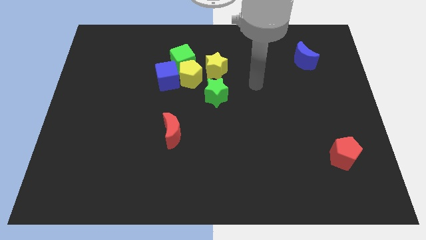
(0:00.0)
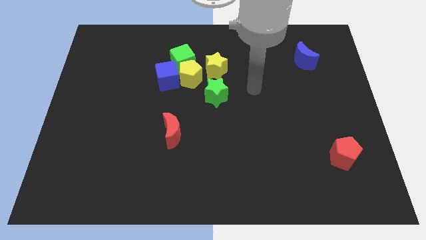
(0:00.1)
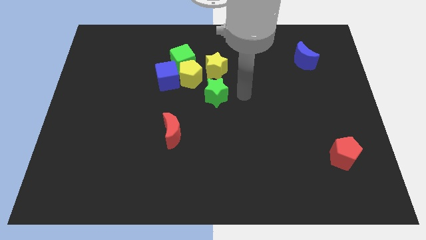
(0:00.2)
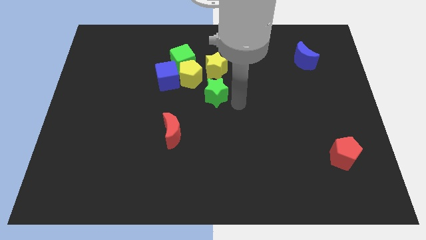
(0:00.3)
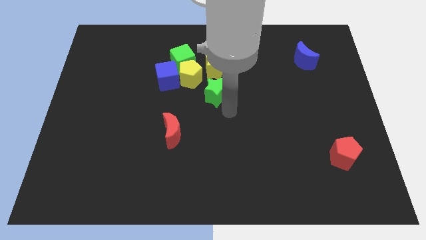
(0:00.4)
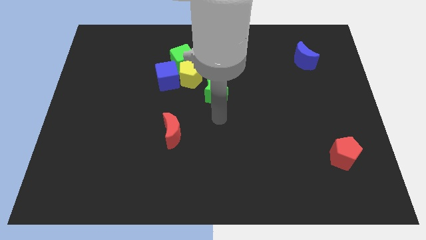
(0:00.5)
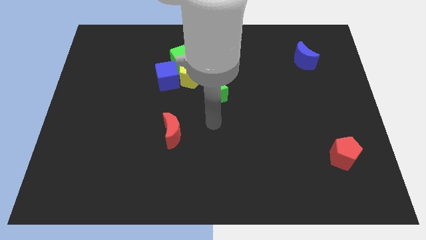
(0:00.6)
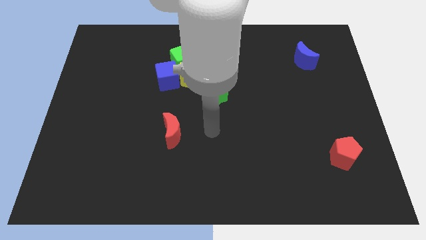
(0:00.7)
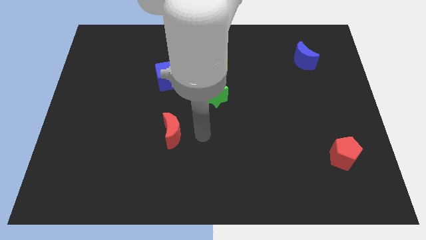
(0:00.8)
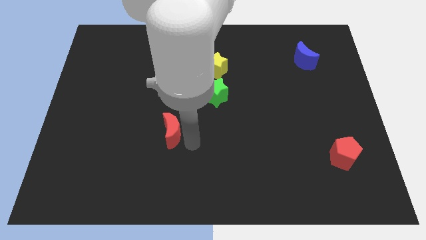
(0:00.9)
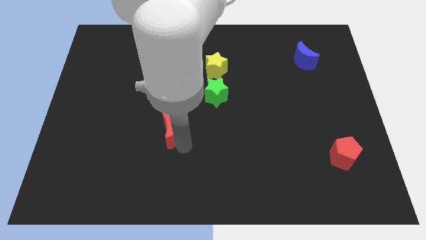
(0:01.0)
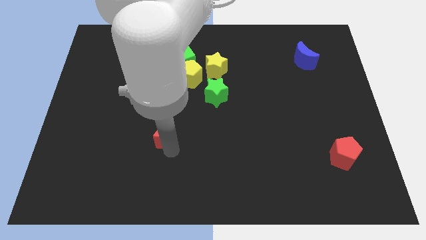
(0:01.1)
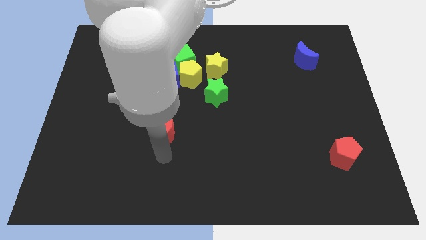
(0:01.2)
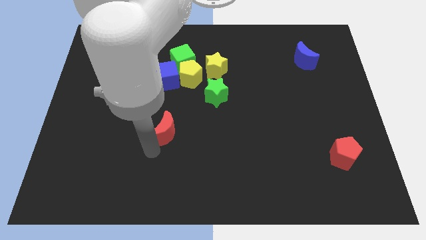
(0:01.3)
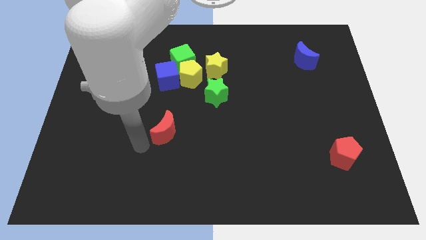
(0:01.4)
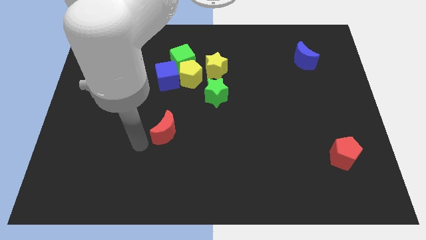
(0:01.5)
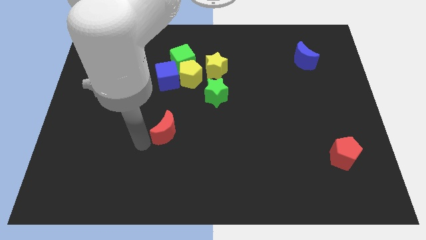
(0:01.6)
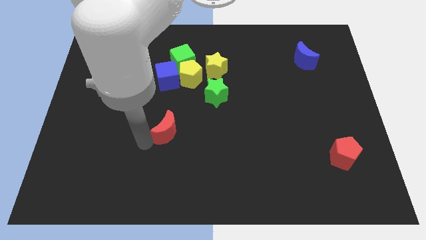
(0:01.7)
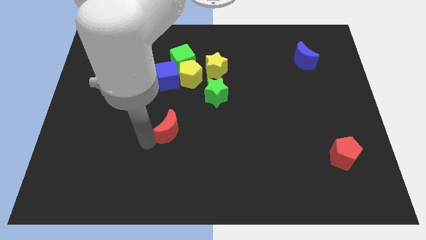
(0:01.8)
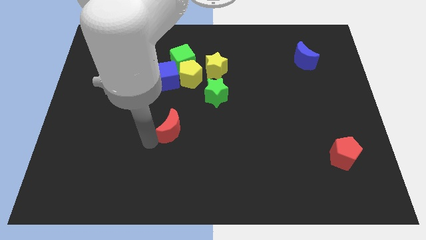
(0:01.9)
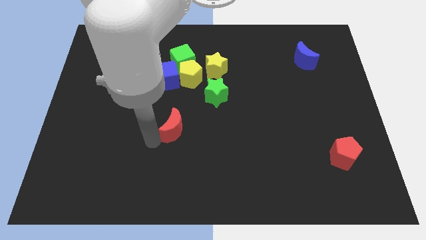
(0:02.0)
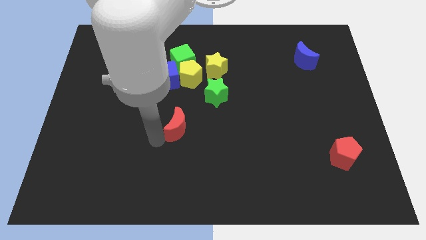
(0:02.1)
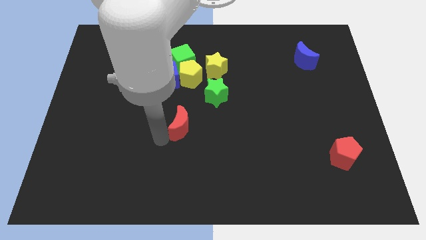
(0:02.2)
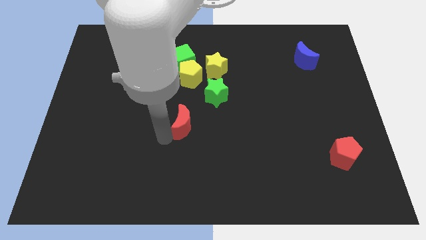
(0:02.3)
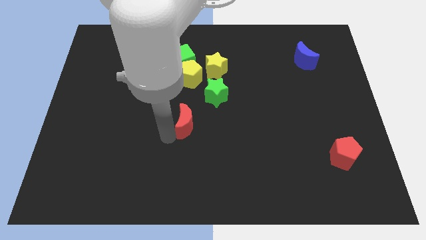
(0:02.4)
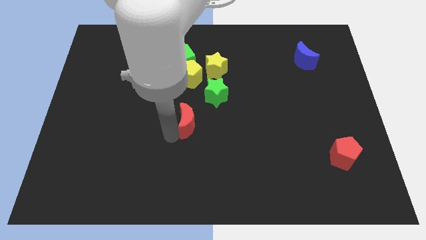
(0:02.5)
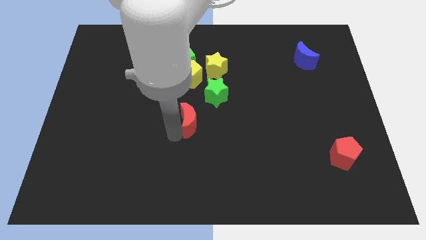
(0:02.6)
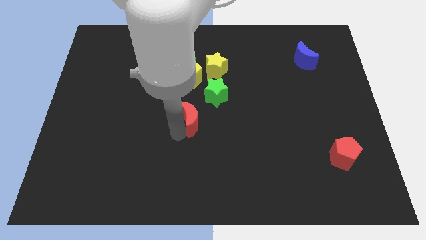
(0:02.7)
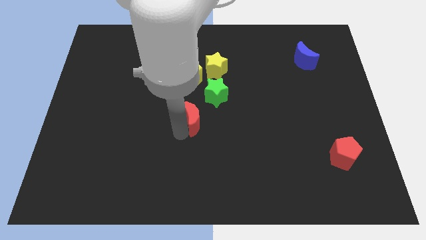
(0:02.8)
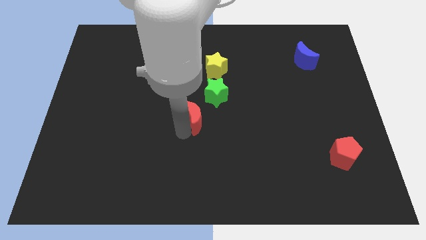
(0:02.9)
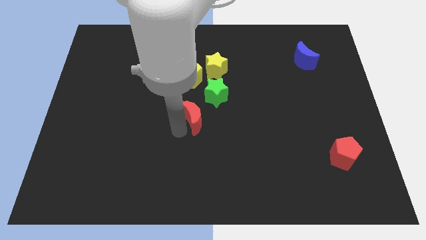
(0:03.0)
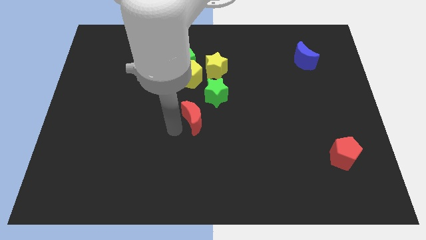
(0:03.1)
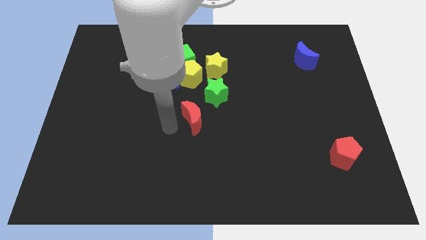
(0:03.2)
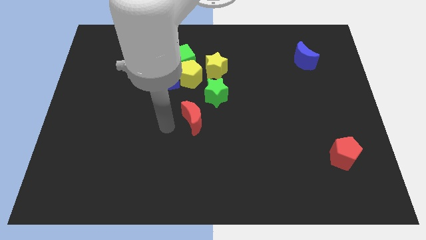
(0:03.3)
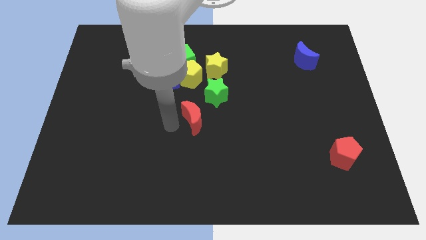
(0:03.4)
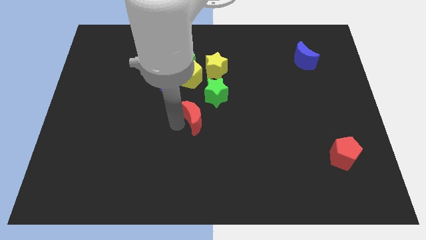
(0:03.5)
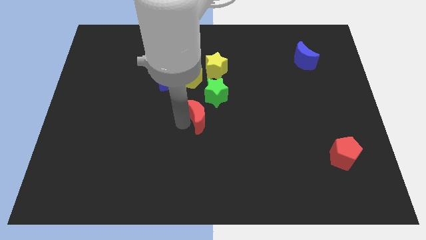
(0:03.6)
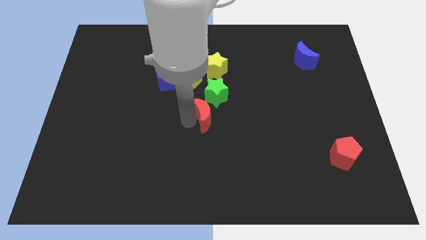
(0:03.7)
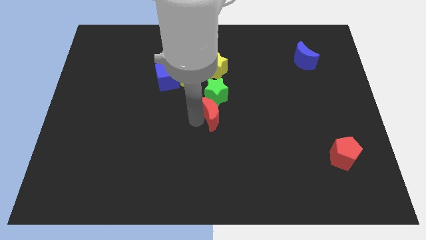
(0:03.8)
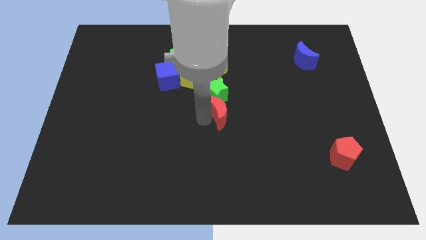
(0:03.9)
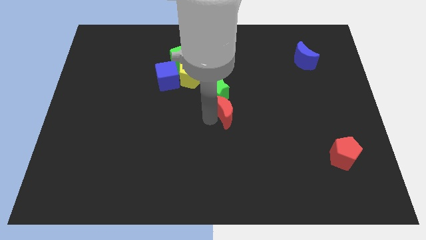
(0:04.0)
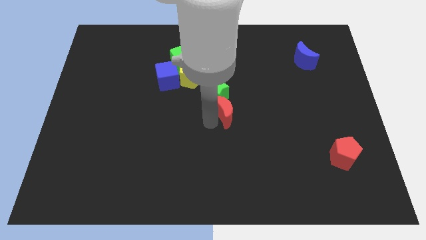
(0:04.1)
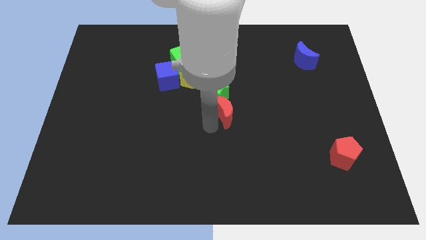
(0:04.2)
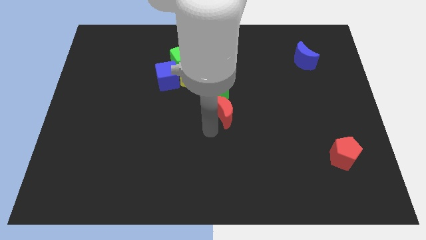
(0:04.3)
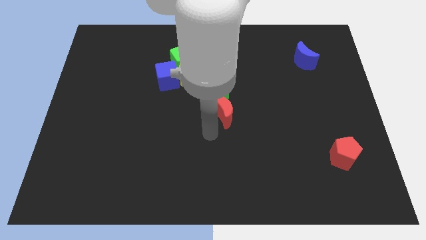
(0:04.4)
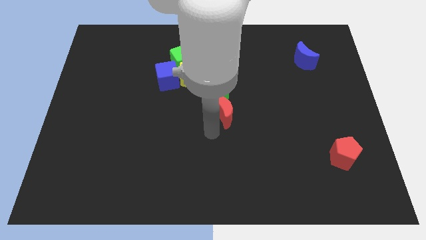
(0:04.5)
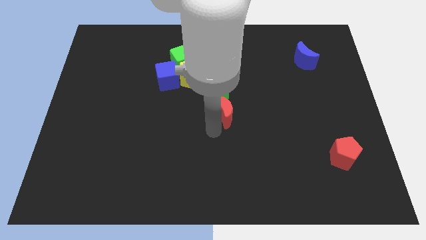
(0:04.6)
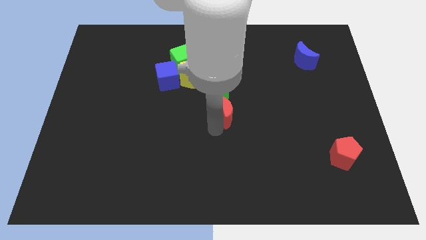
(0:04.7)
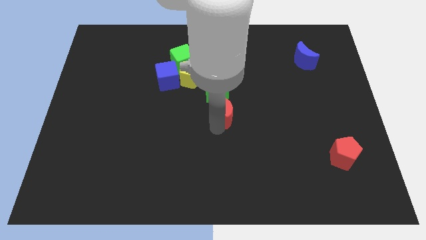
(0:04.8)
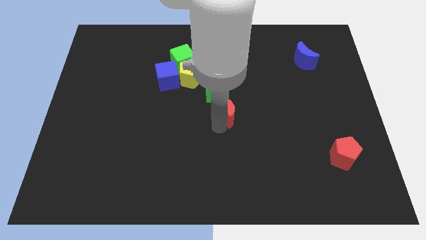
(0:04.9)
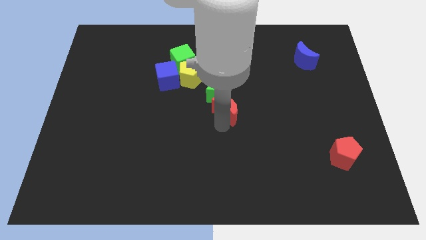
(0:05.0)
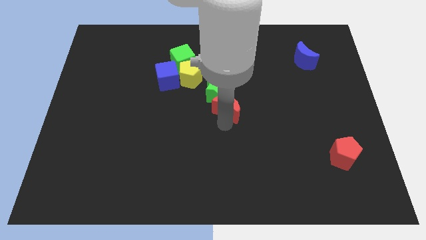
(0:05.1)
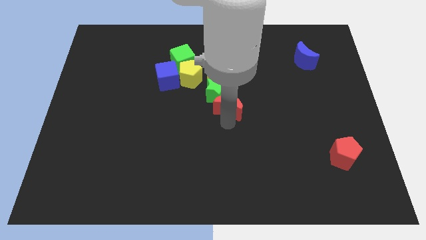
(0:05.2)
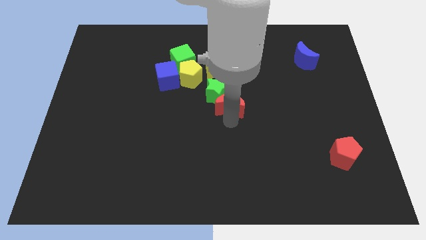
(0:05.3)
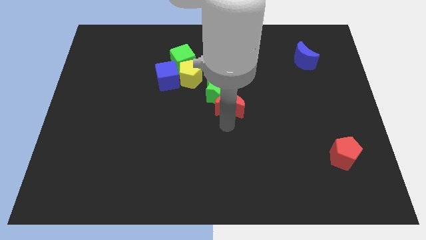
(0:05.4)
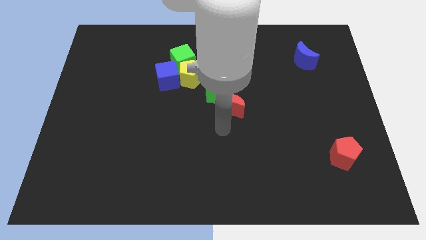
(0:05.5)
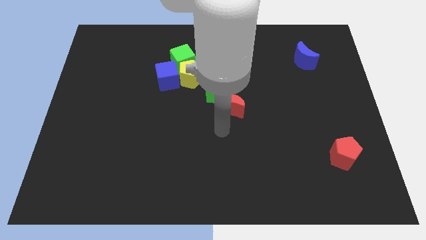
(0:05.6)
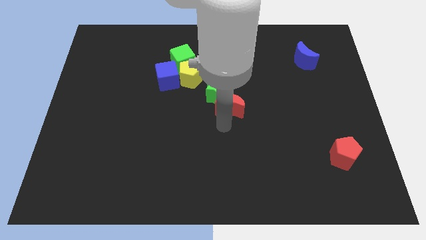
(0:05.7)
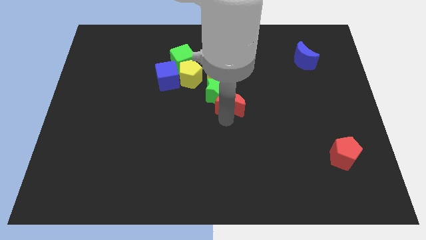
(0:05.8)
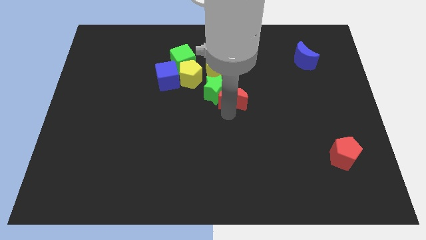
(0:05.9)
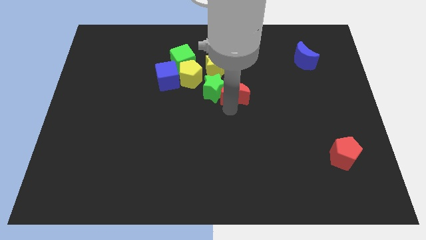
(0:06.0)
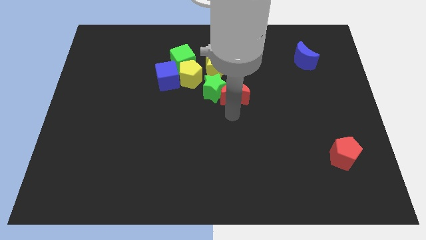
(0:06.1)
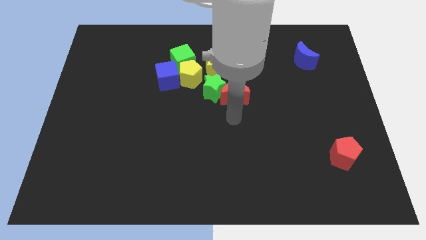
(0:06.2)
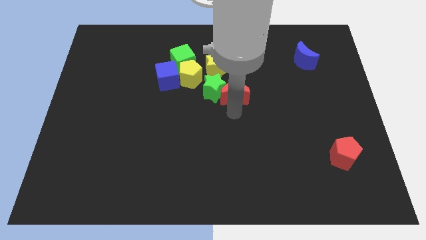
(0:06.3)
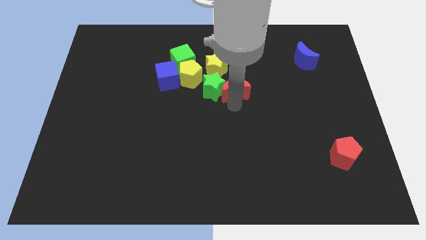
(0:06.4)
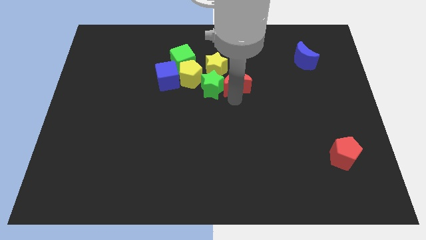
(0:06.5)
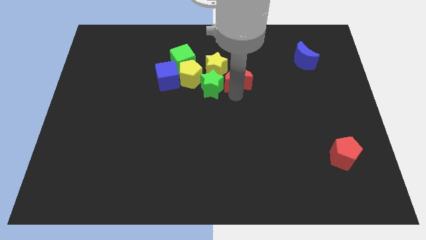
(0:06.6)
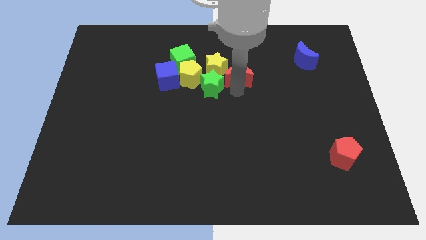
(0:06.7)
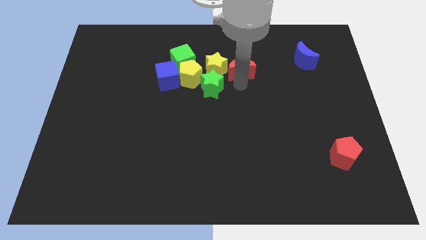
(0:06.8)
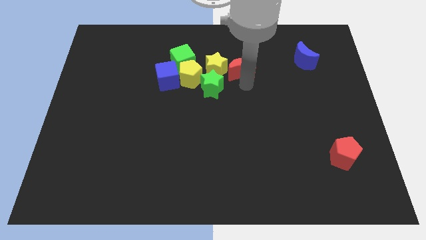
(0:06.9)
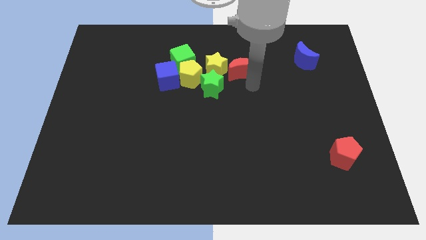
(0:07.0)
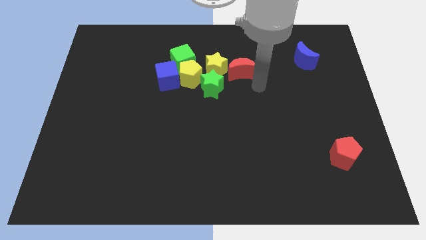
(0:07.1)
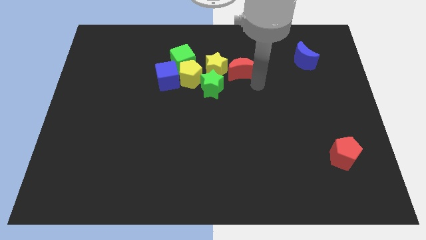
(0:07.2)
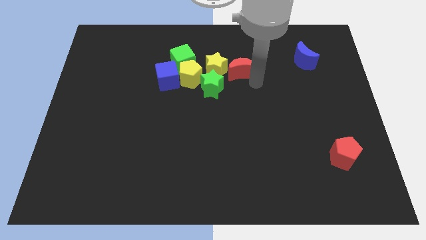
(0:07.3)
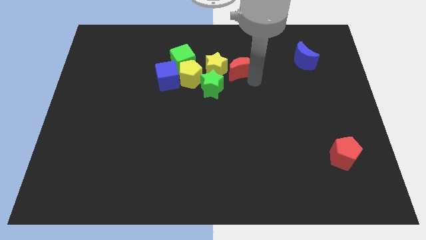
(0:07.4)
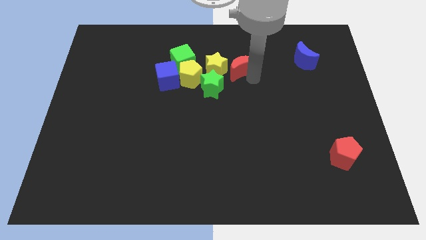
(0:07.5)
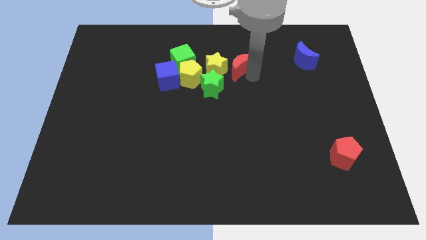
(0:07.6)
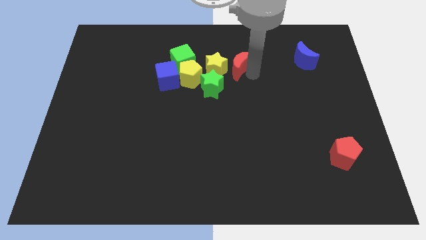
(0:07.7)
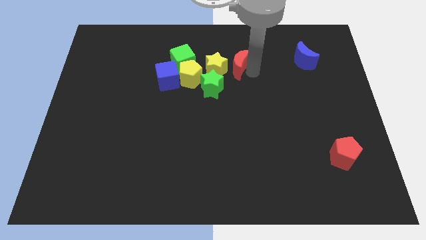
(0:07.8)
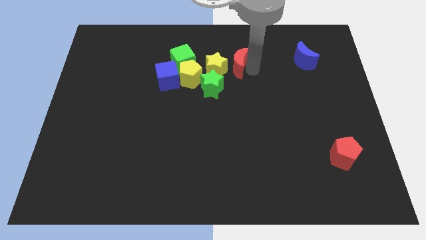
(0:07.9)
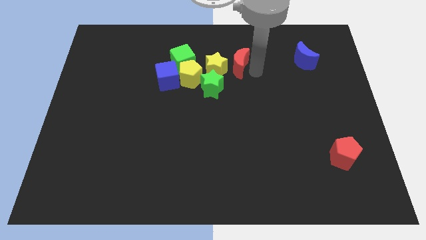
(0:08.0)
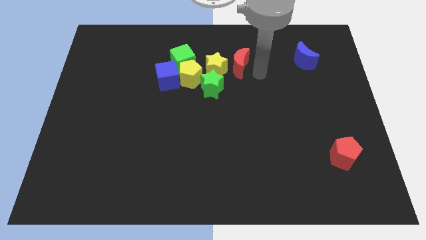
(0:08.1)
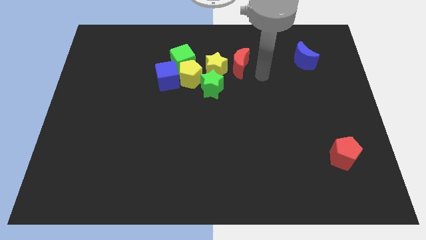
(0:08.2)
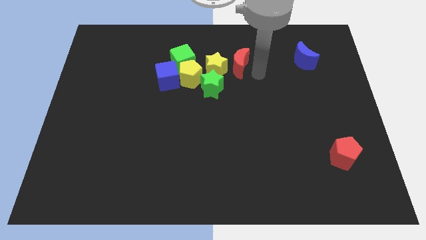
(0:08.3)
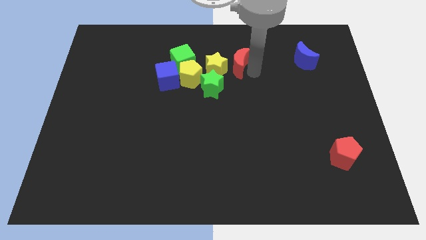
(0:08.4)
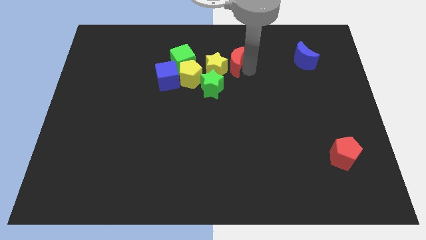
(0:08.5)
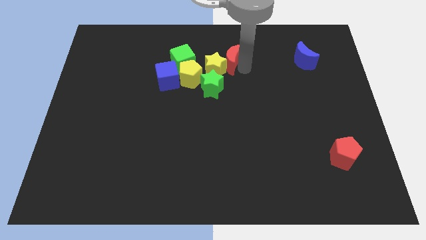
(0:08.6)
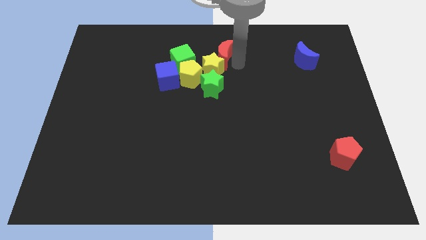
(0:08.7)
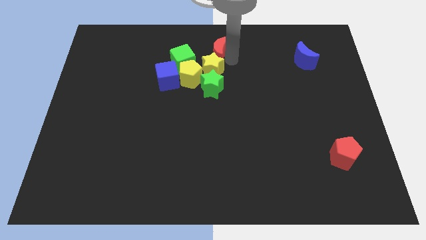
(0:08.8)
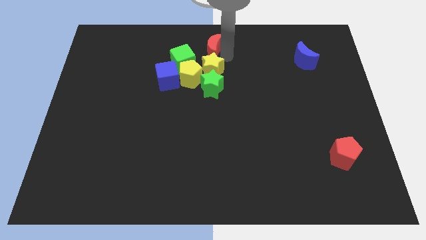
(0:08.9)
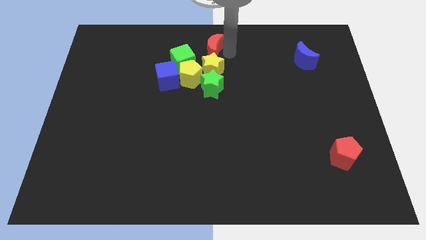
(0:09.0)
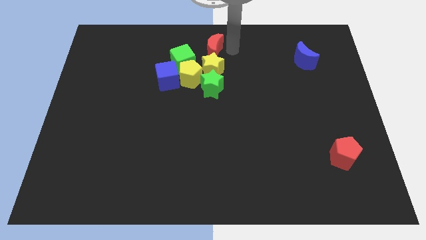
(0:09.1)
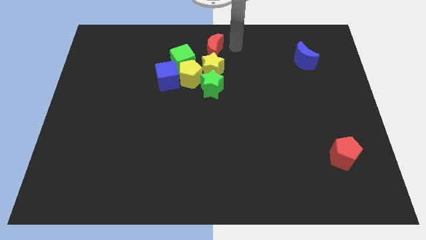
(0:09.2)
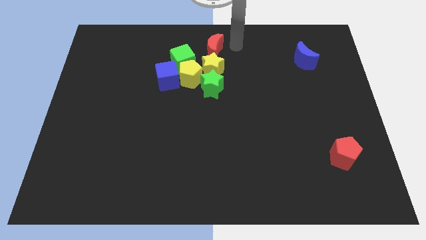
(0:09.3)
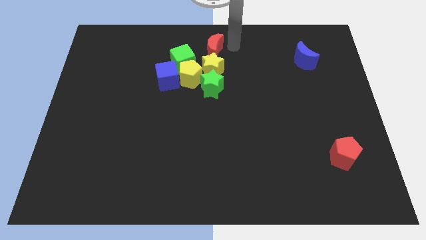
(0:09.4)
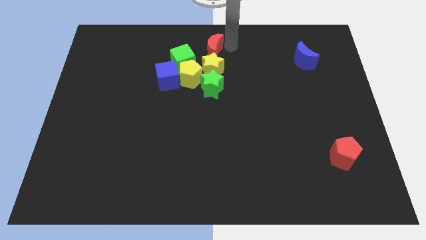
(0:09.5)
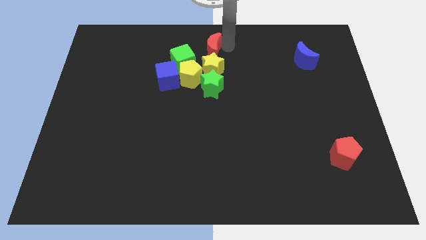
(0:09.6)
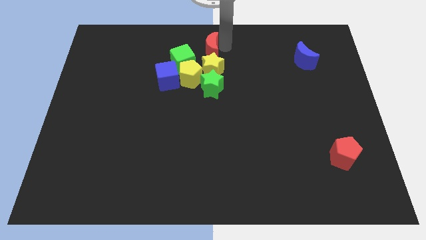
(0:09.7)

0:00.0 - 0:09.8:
push the red moon diagonally up and to the left of the yellow star
